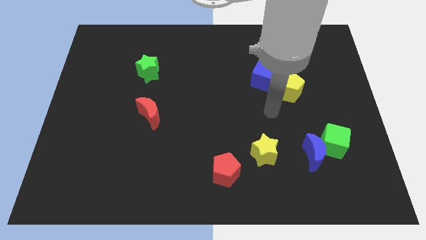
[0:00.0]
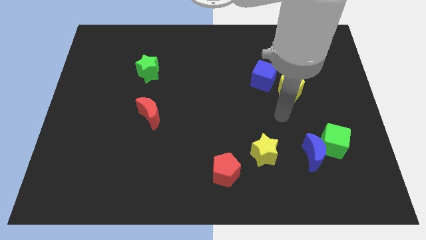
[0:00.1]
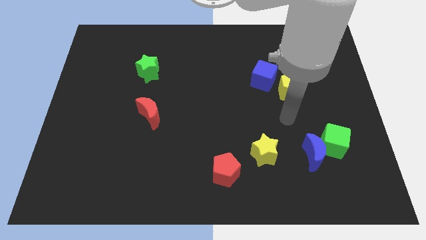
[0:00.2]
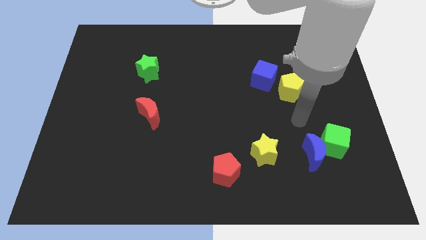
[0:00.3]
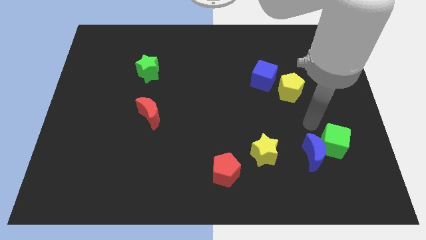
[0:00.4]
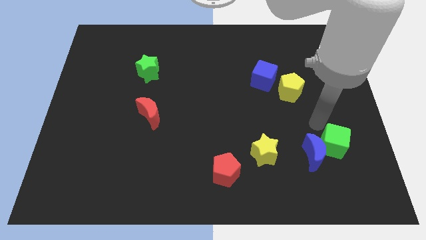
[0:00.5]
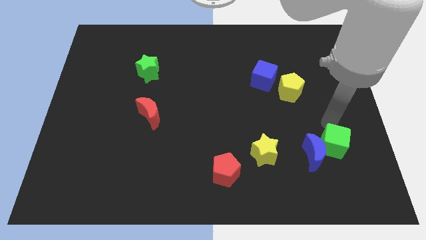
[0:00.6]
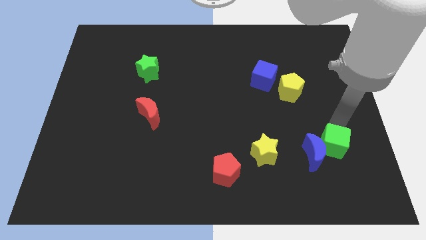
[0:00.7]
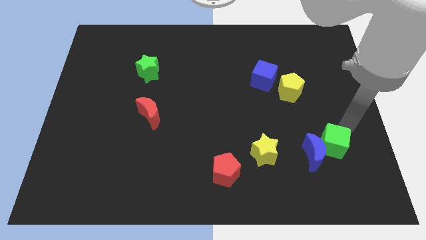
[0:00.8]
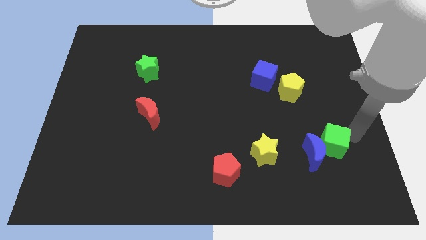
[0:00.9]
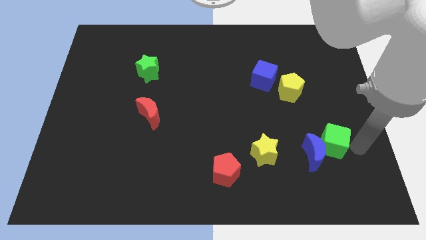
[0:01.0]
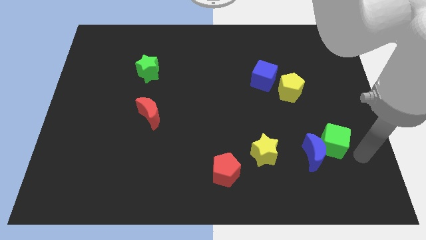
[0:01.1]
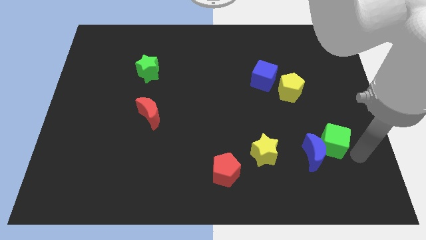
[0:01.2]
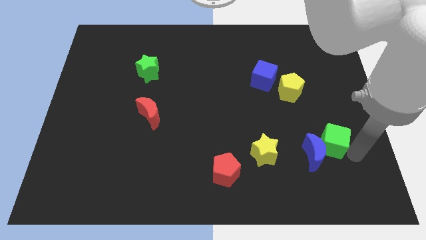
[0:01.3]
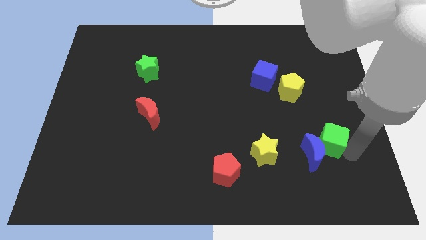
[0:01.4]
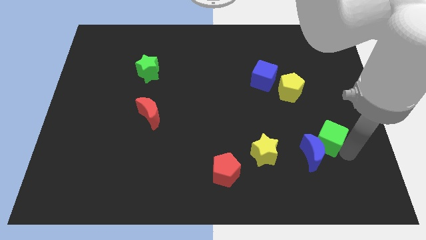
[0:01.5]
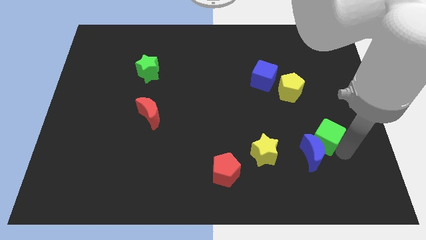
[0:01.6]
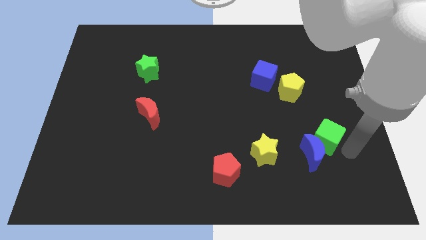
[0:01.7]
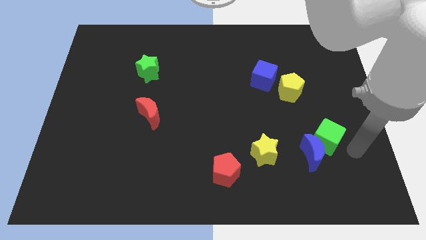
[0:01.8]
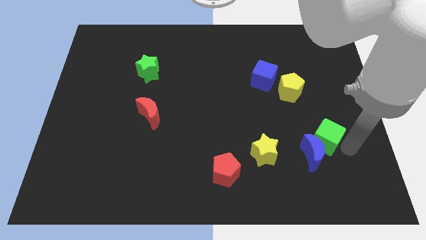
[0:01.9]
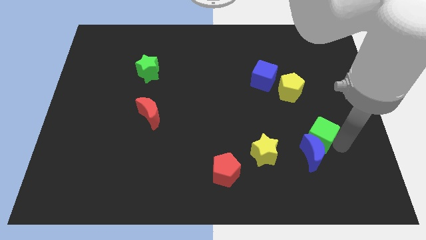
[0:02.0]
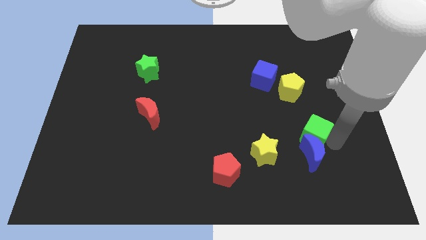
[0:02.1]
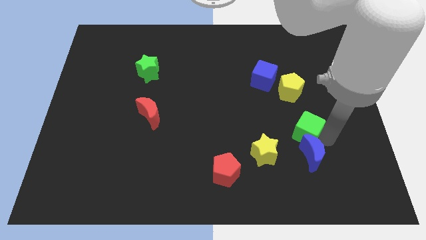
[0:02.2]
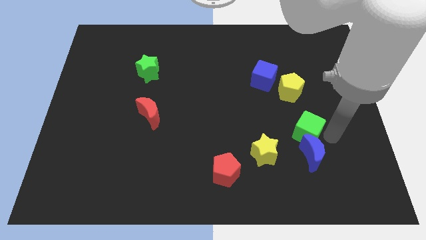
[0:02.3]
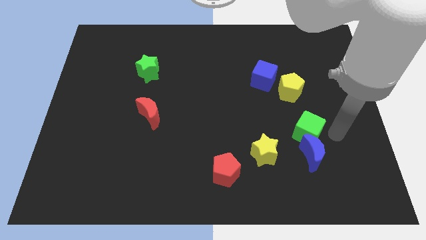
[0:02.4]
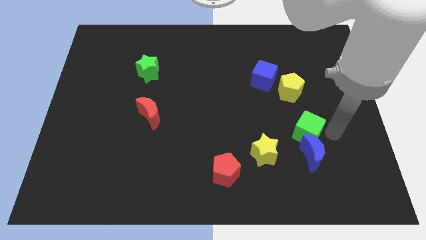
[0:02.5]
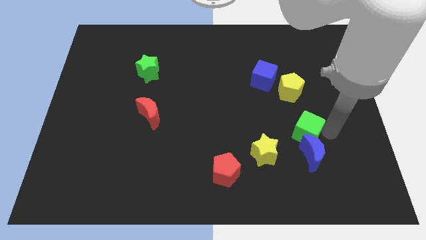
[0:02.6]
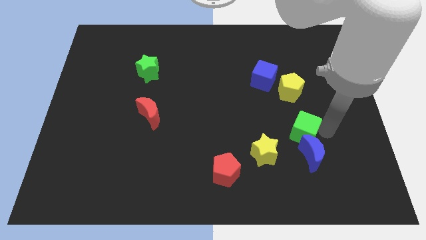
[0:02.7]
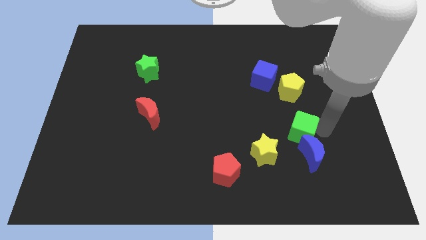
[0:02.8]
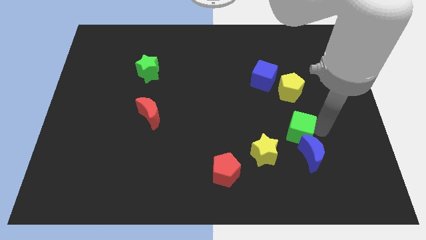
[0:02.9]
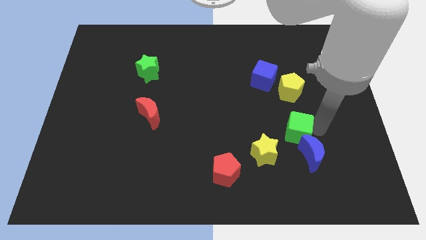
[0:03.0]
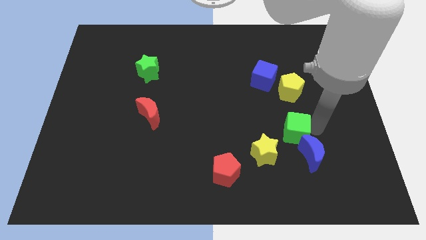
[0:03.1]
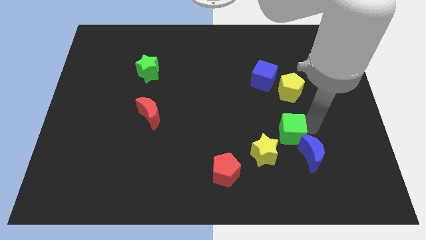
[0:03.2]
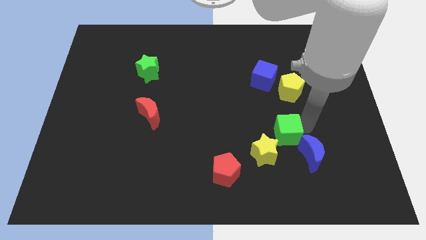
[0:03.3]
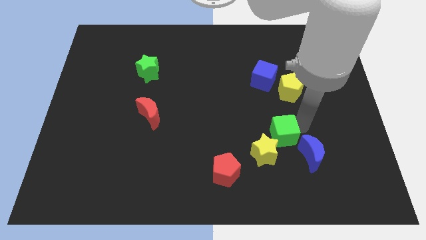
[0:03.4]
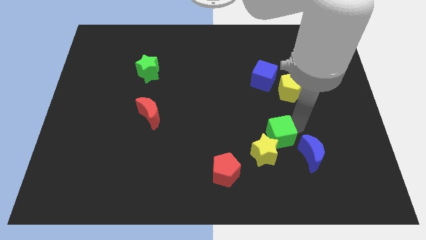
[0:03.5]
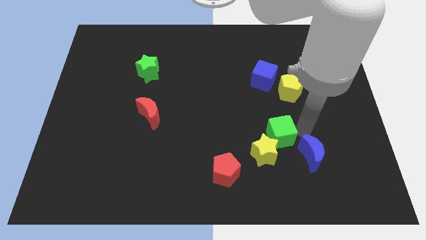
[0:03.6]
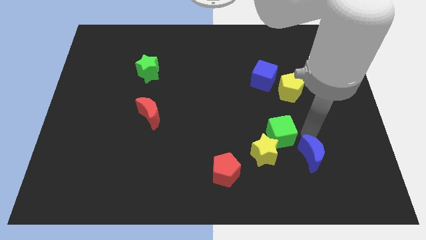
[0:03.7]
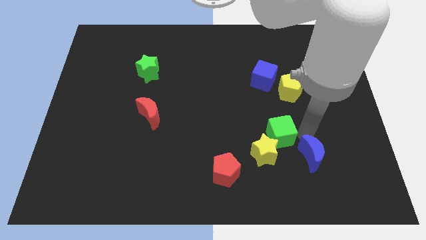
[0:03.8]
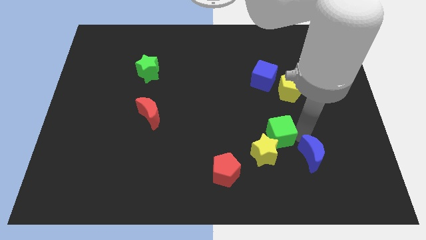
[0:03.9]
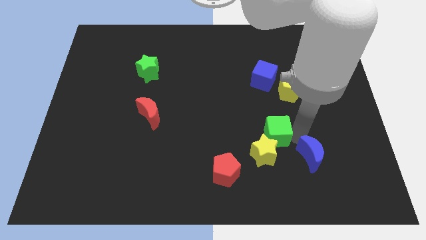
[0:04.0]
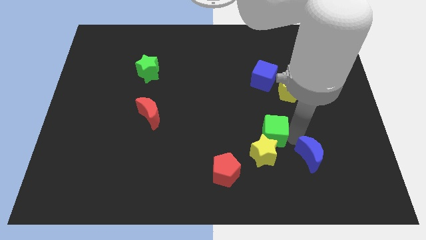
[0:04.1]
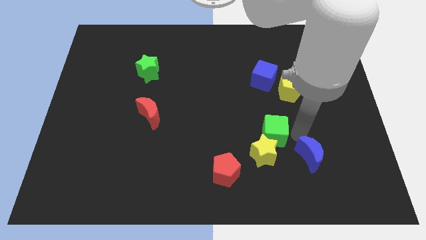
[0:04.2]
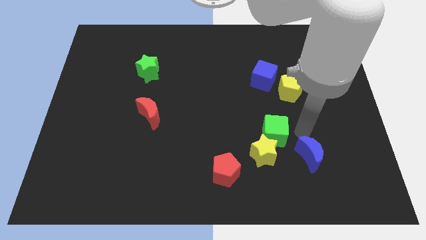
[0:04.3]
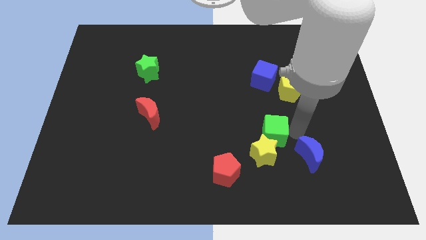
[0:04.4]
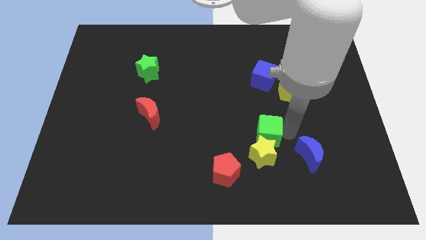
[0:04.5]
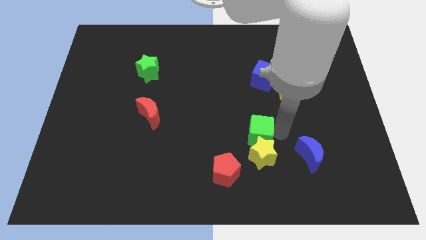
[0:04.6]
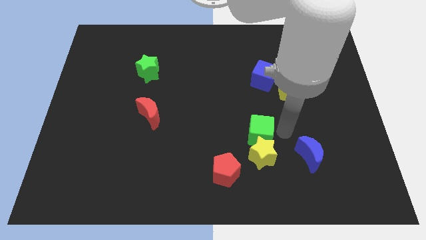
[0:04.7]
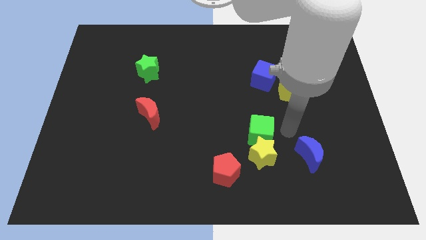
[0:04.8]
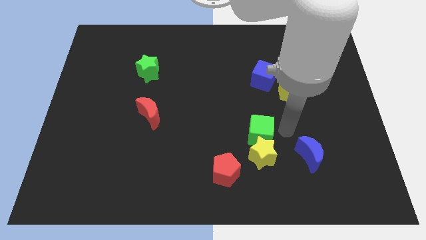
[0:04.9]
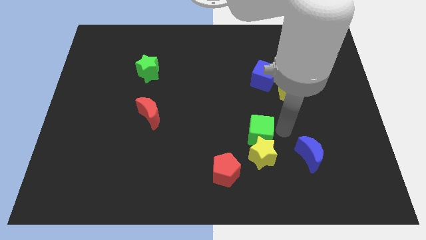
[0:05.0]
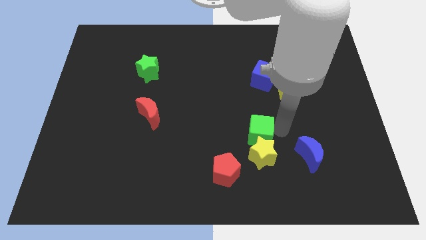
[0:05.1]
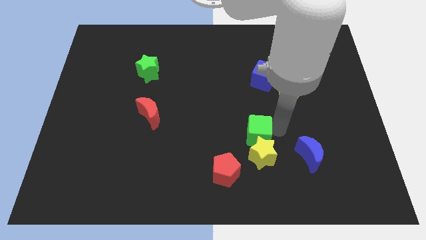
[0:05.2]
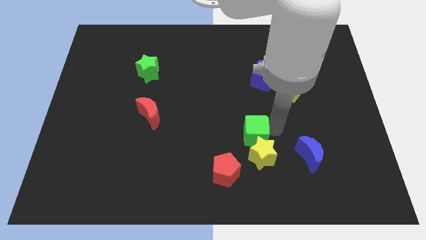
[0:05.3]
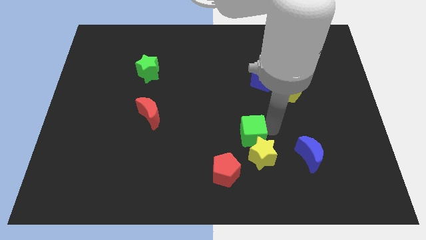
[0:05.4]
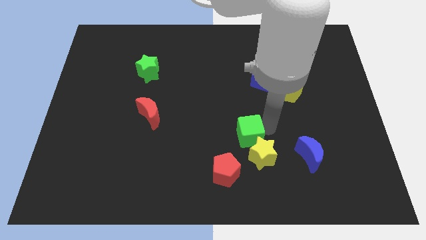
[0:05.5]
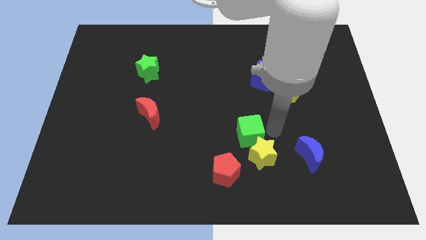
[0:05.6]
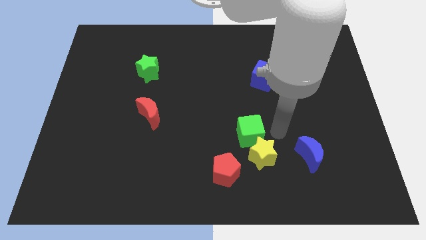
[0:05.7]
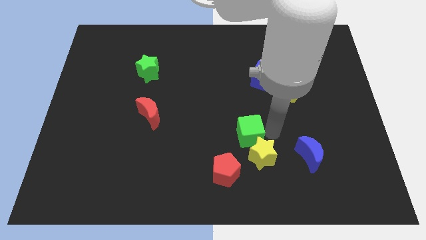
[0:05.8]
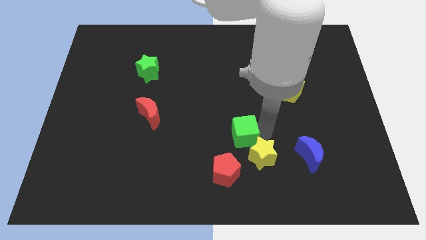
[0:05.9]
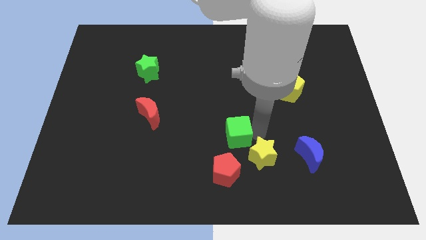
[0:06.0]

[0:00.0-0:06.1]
move the green cube left

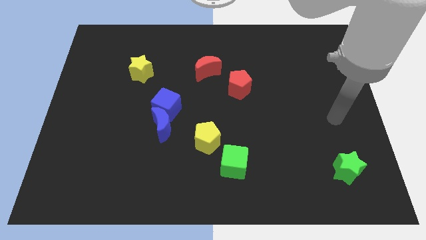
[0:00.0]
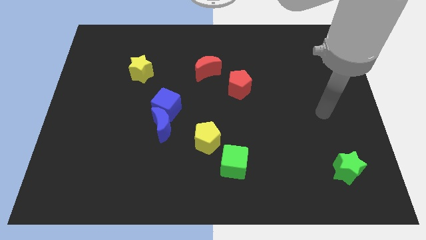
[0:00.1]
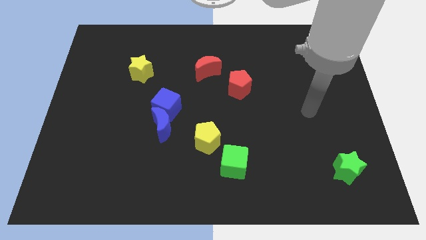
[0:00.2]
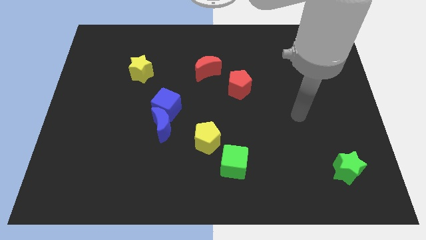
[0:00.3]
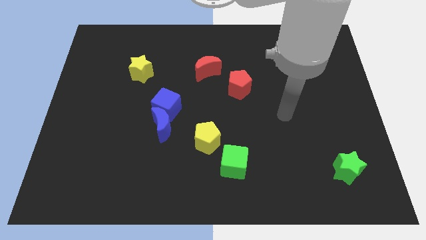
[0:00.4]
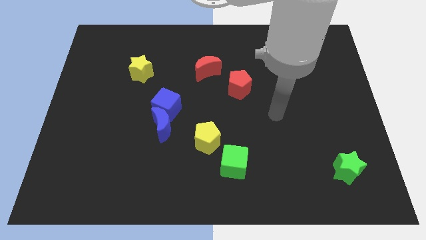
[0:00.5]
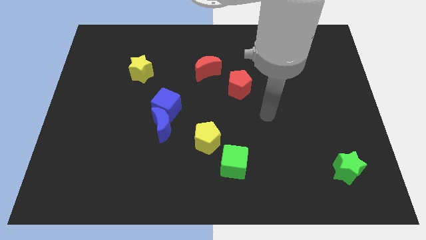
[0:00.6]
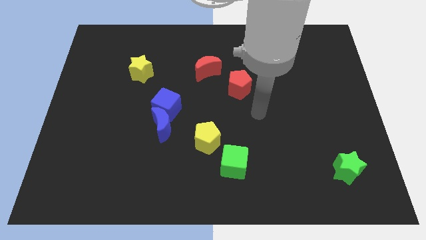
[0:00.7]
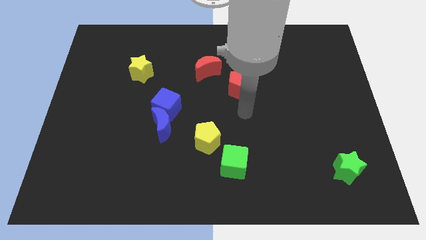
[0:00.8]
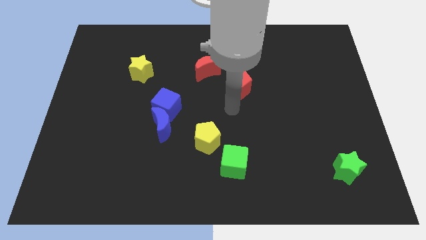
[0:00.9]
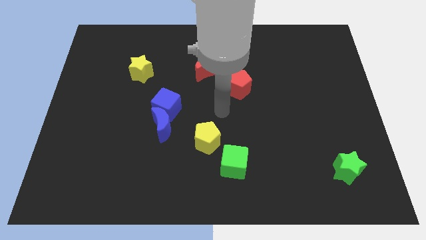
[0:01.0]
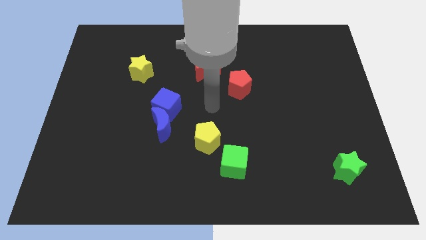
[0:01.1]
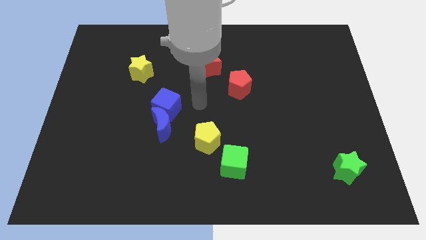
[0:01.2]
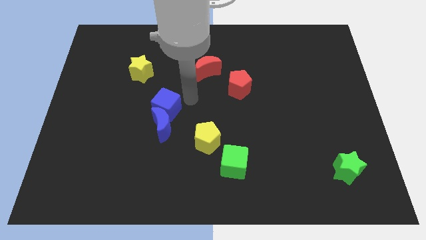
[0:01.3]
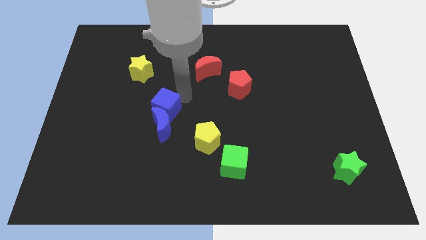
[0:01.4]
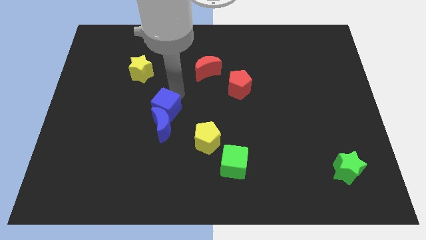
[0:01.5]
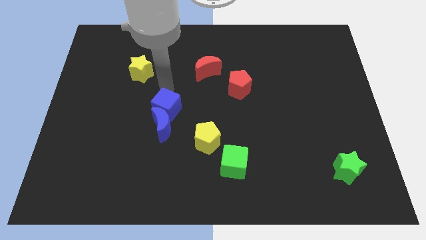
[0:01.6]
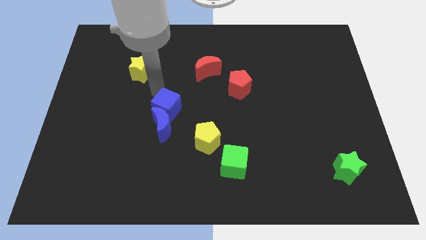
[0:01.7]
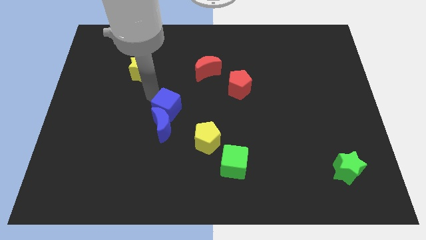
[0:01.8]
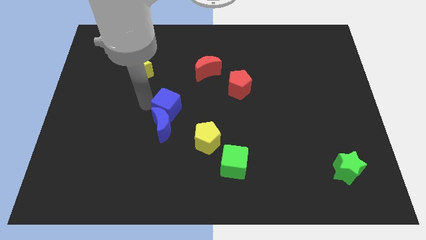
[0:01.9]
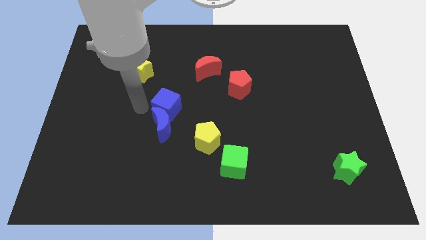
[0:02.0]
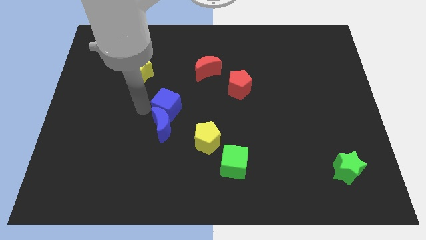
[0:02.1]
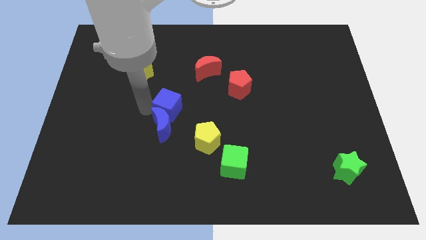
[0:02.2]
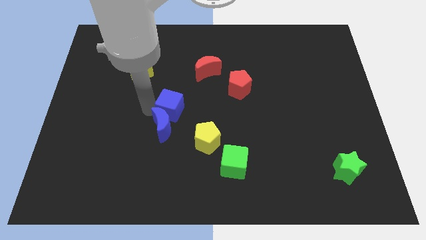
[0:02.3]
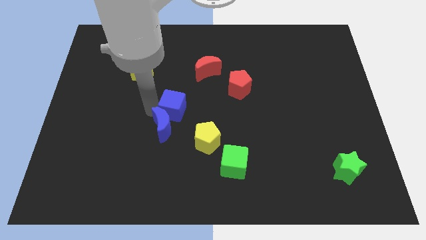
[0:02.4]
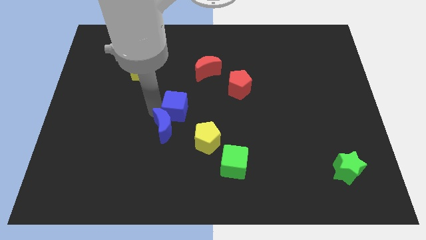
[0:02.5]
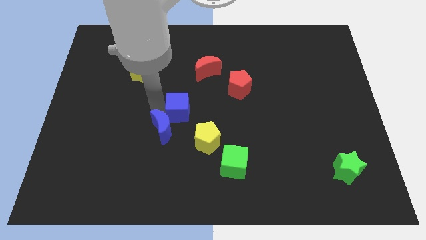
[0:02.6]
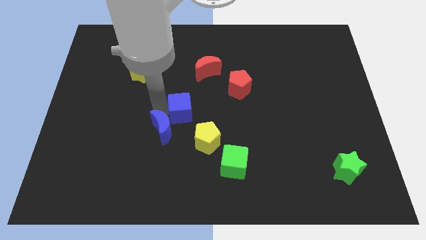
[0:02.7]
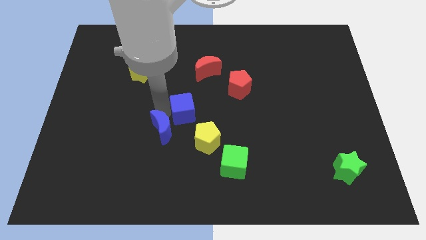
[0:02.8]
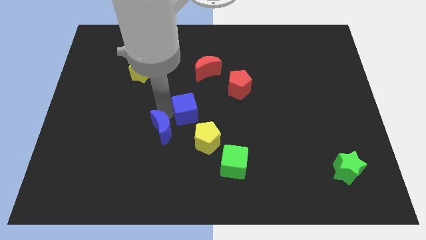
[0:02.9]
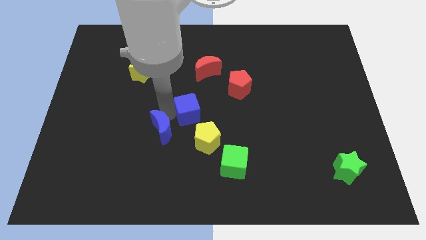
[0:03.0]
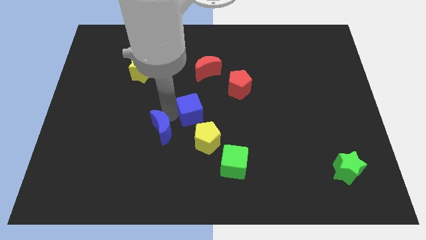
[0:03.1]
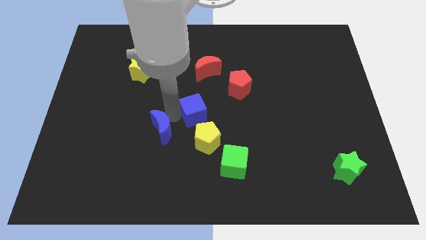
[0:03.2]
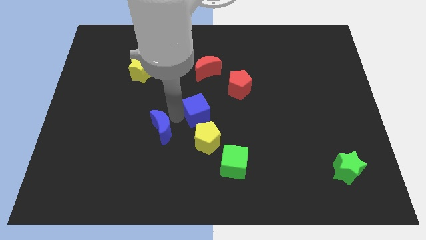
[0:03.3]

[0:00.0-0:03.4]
push the blue cube right a bit
